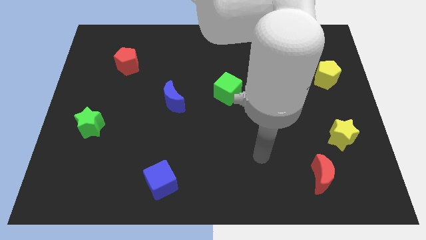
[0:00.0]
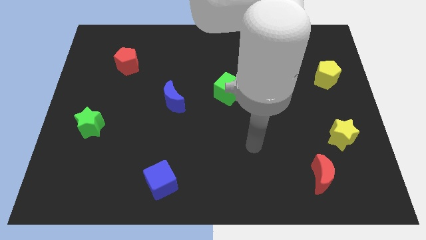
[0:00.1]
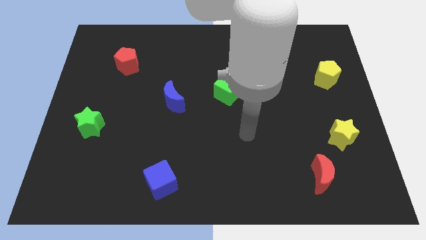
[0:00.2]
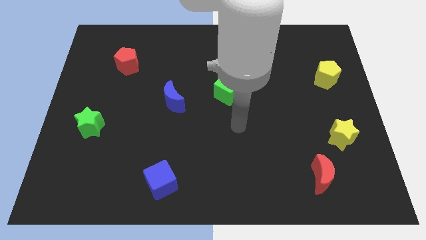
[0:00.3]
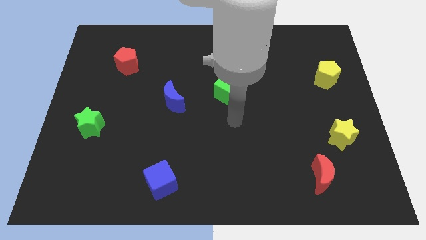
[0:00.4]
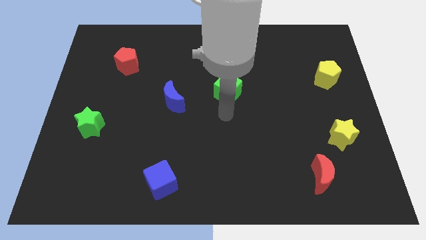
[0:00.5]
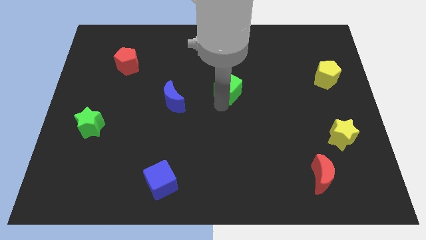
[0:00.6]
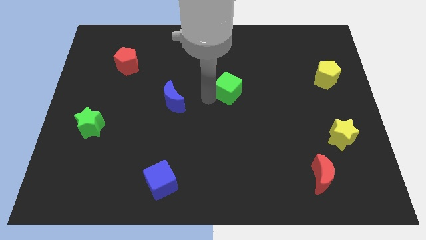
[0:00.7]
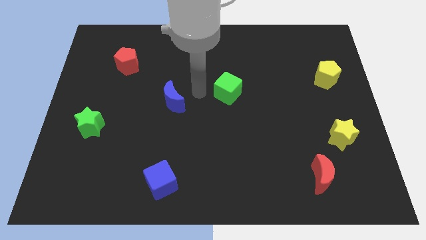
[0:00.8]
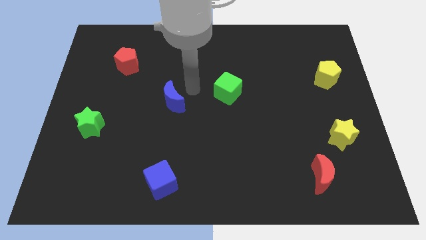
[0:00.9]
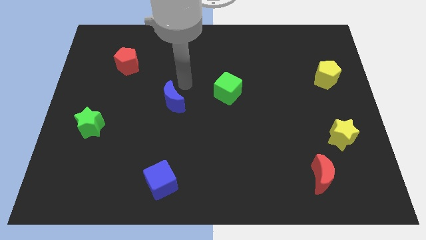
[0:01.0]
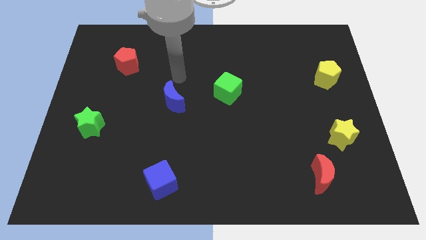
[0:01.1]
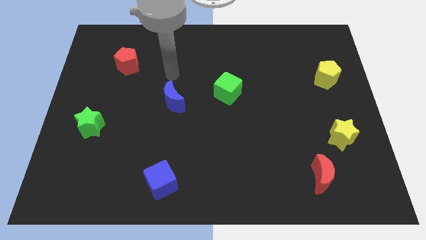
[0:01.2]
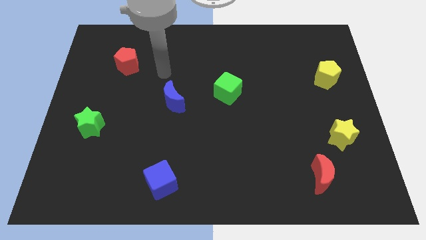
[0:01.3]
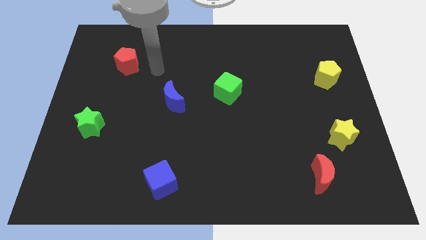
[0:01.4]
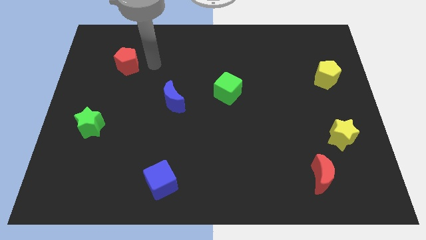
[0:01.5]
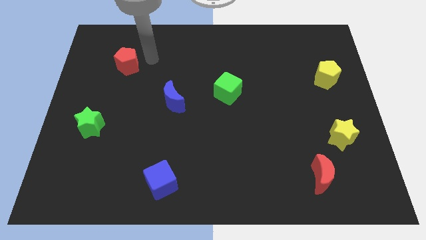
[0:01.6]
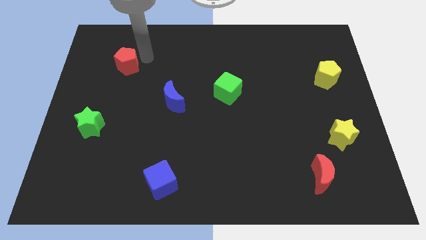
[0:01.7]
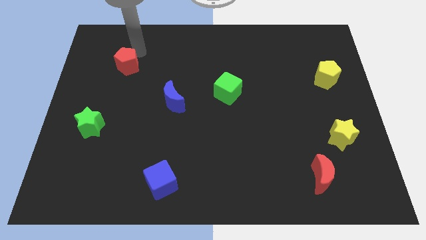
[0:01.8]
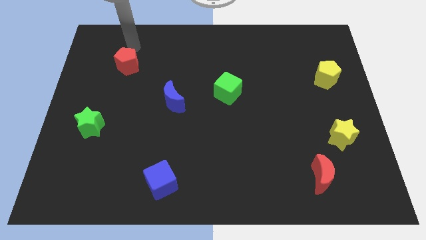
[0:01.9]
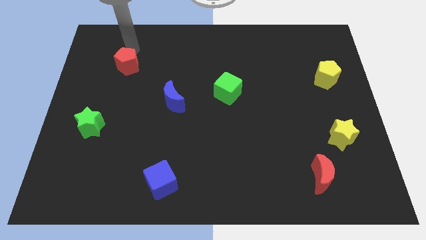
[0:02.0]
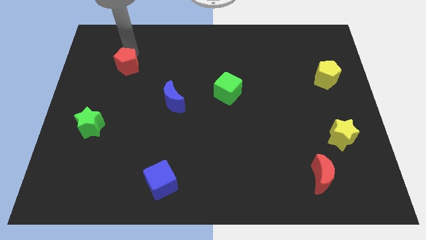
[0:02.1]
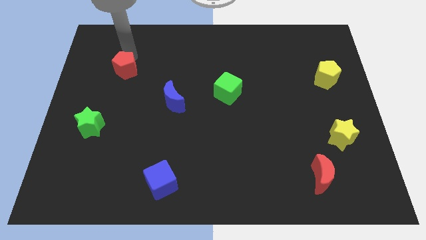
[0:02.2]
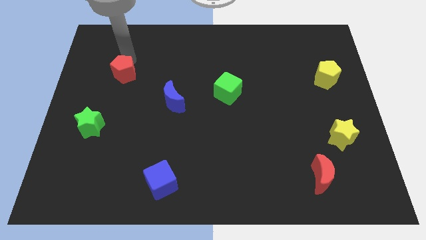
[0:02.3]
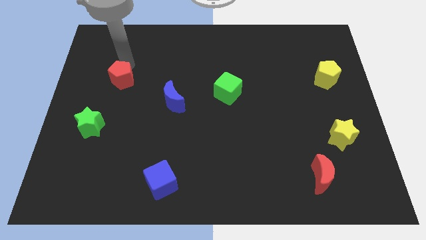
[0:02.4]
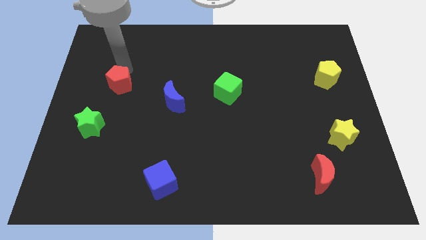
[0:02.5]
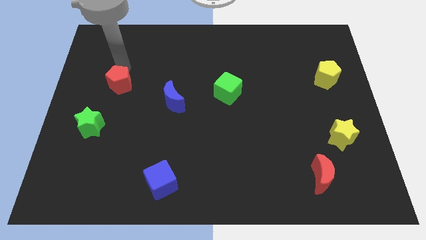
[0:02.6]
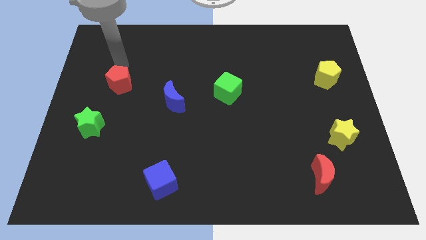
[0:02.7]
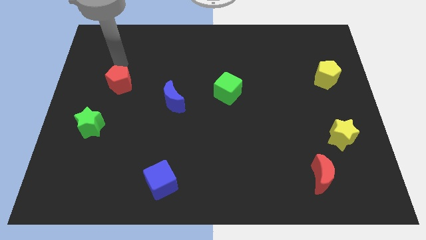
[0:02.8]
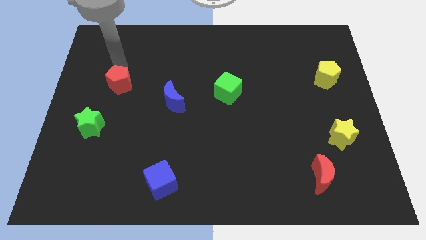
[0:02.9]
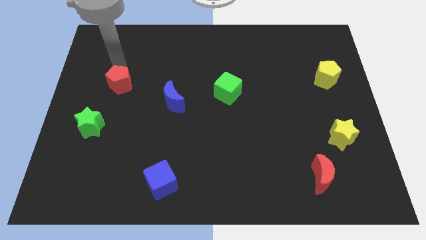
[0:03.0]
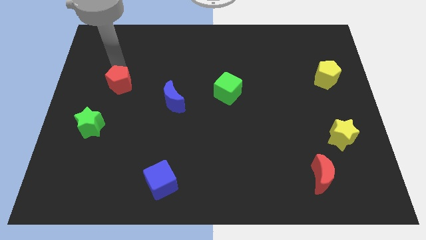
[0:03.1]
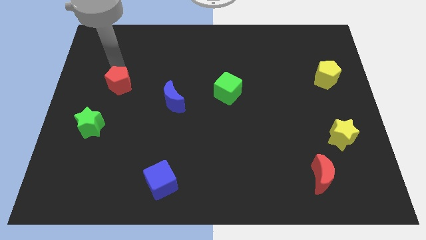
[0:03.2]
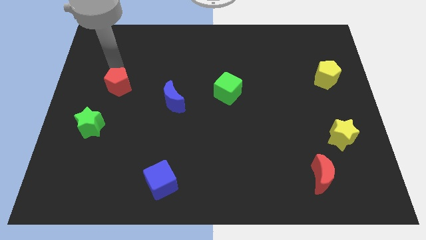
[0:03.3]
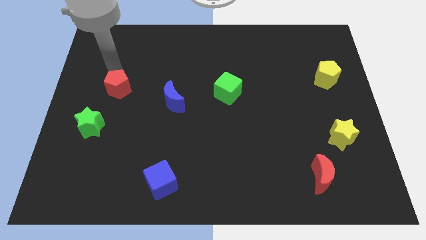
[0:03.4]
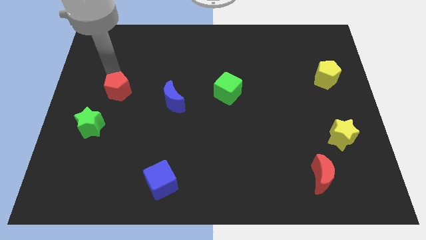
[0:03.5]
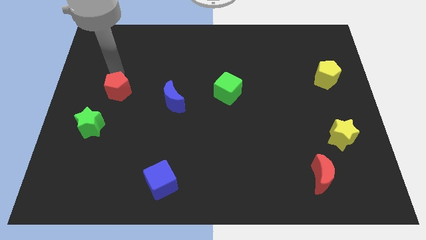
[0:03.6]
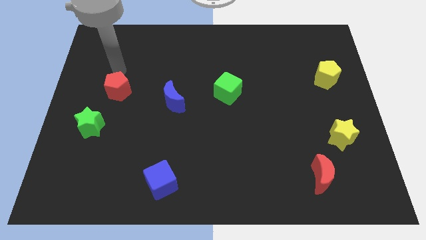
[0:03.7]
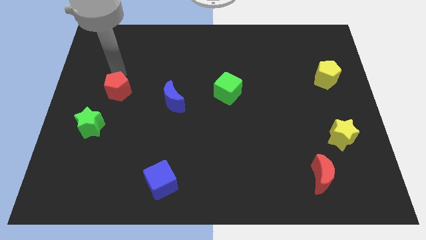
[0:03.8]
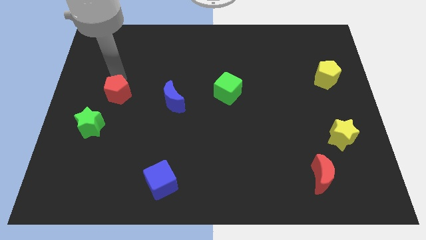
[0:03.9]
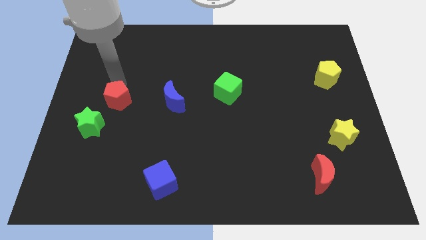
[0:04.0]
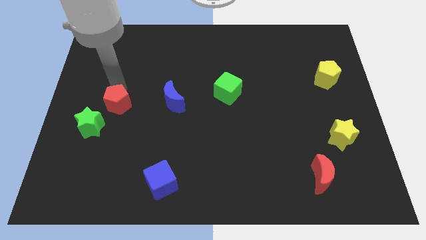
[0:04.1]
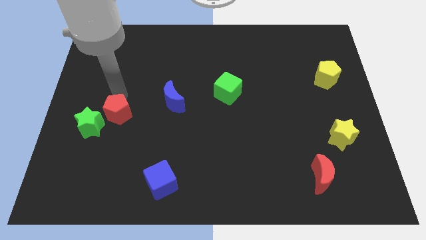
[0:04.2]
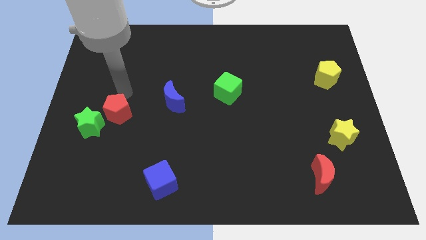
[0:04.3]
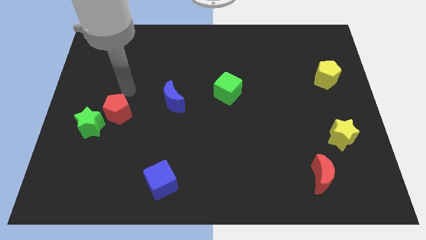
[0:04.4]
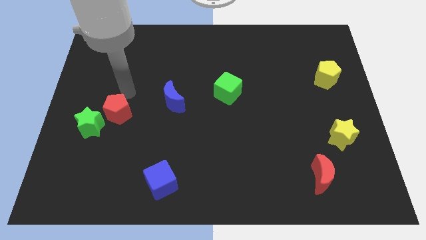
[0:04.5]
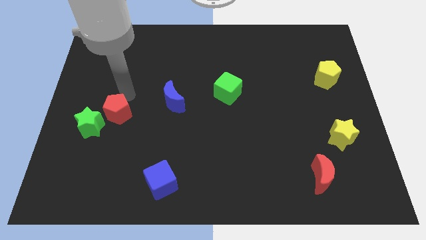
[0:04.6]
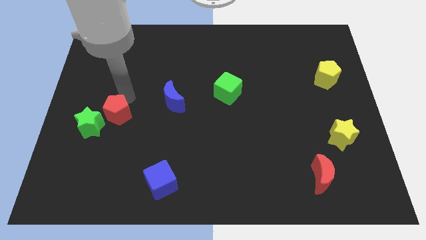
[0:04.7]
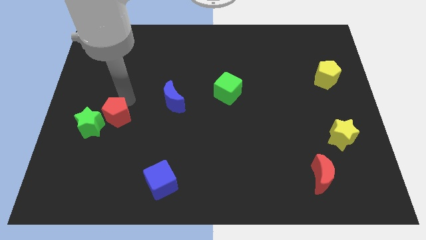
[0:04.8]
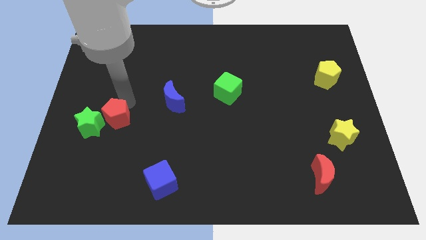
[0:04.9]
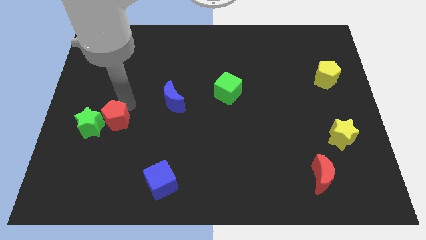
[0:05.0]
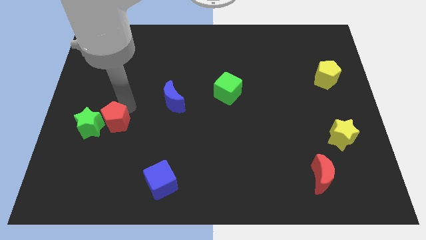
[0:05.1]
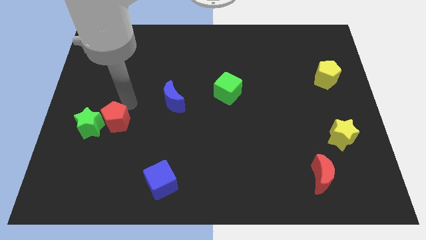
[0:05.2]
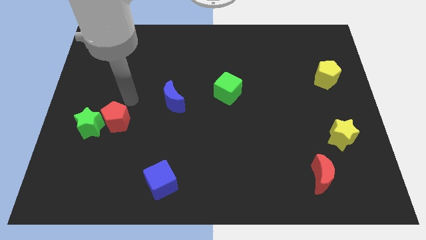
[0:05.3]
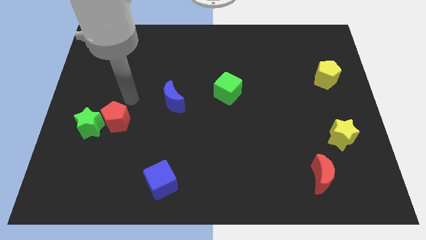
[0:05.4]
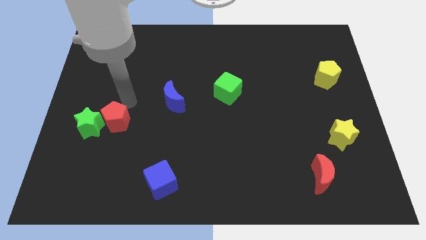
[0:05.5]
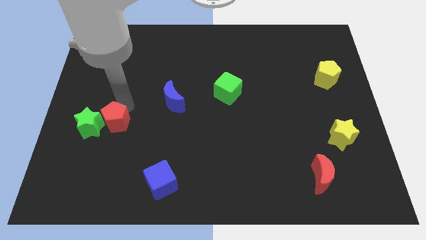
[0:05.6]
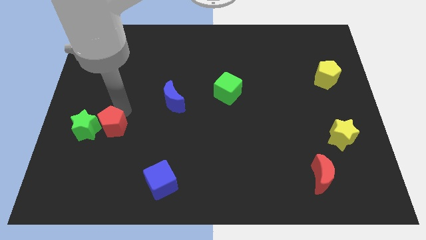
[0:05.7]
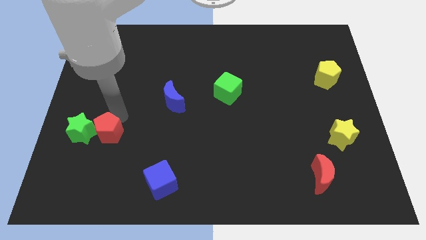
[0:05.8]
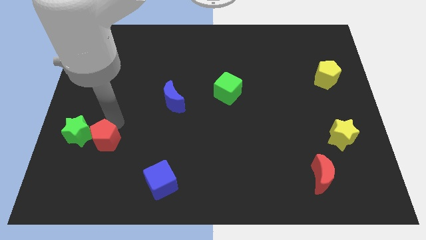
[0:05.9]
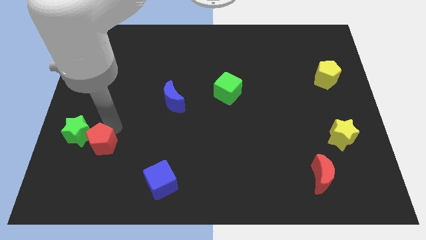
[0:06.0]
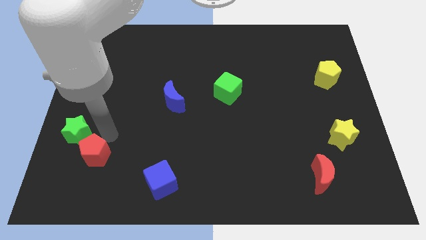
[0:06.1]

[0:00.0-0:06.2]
slide the red pentagon below the green star

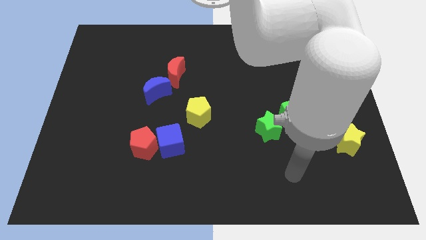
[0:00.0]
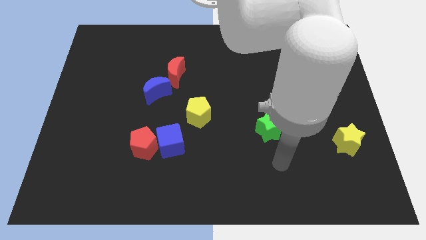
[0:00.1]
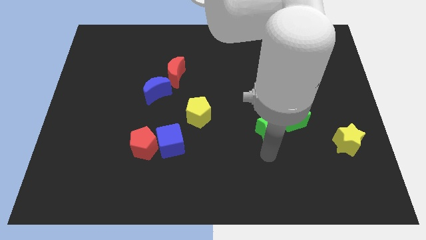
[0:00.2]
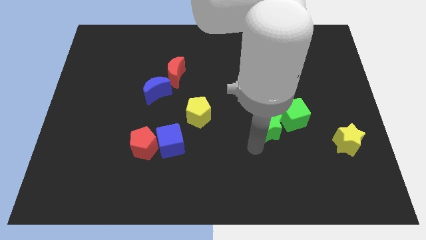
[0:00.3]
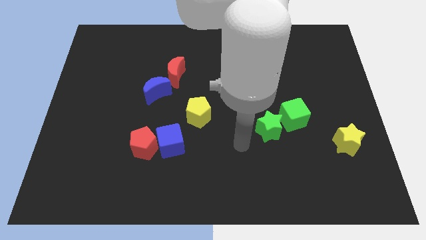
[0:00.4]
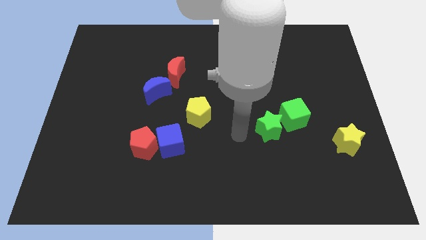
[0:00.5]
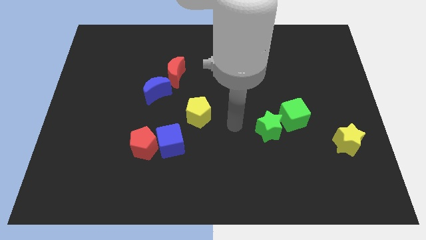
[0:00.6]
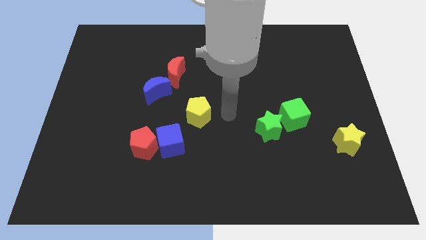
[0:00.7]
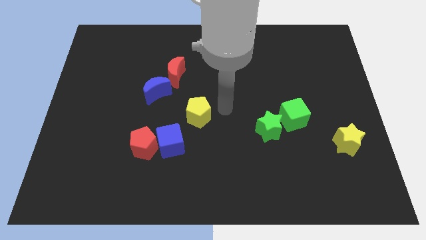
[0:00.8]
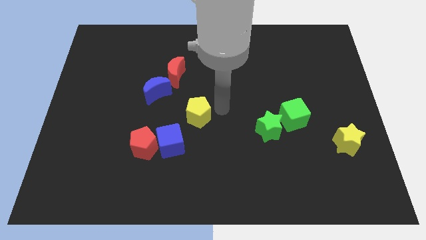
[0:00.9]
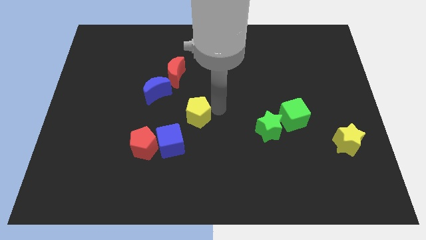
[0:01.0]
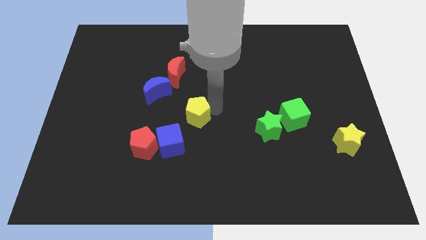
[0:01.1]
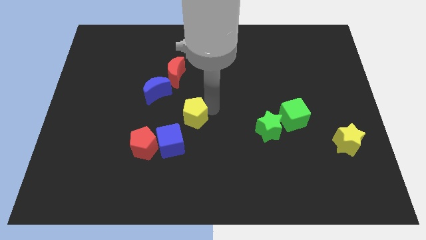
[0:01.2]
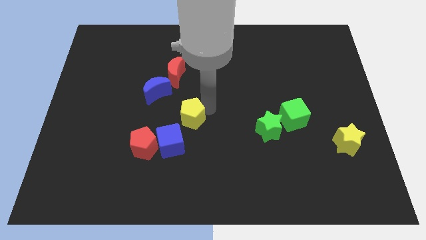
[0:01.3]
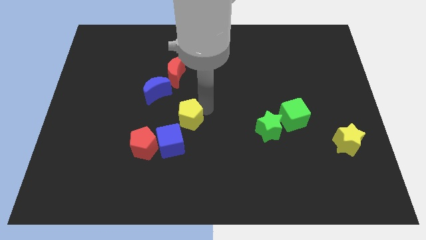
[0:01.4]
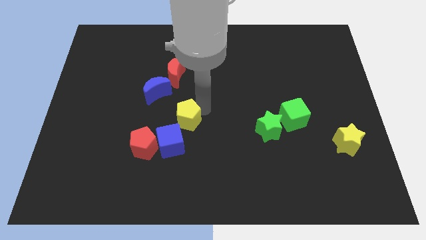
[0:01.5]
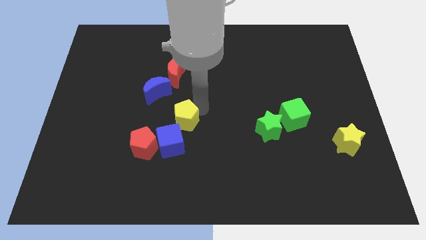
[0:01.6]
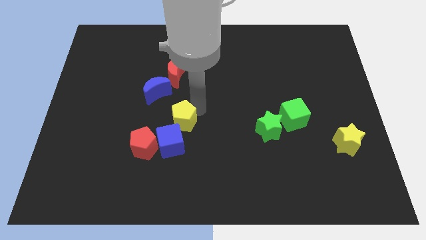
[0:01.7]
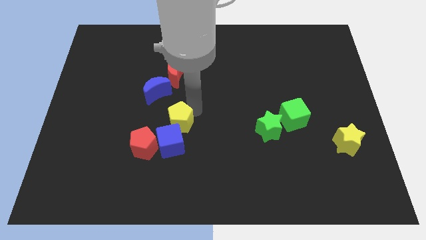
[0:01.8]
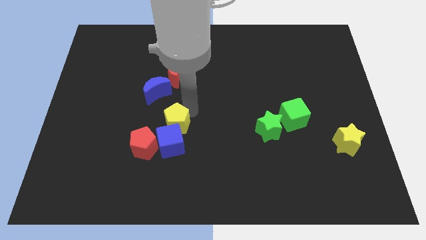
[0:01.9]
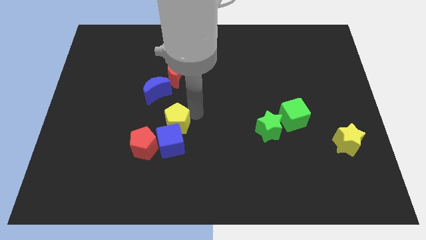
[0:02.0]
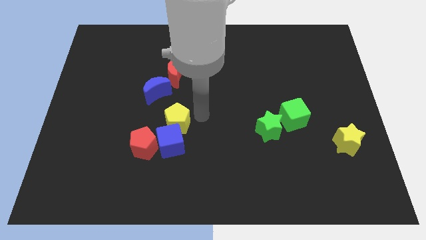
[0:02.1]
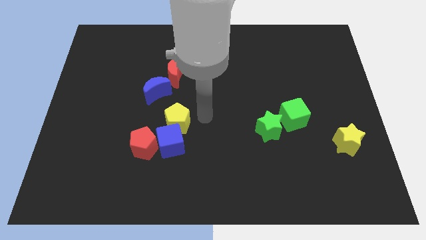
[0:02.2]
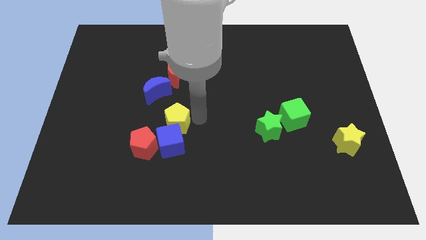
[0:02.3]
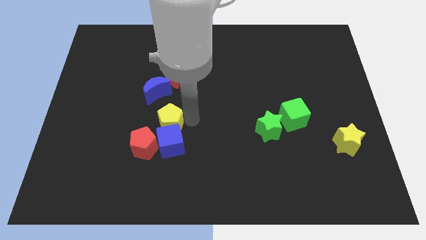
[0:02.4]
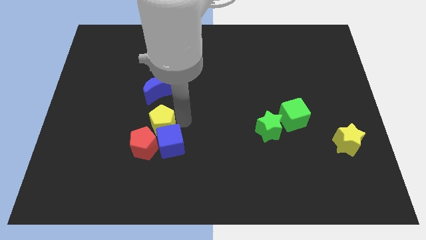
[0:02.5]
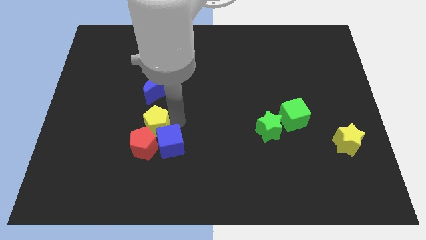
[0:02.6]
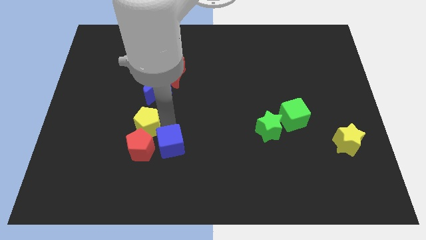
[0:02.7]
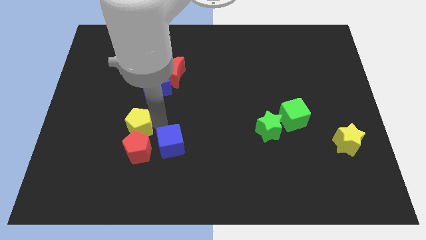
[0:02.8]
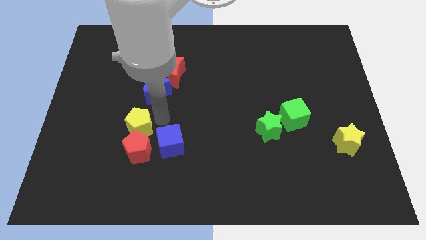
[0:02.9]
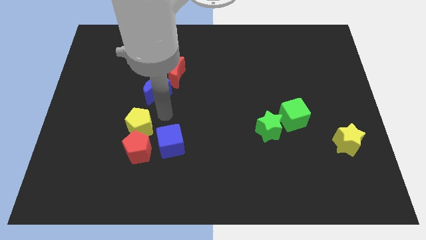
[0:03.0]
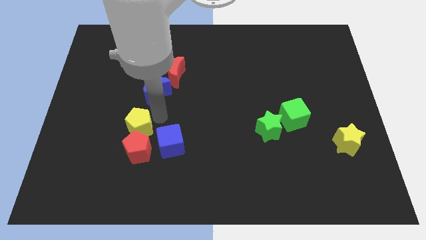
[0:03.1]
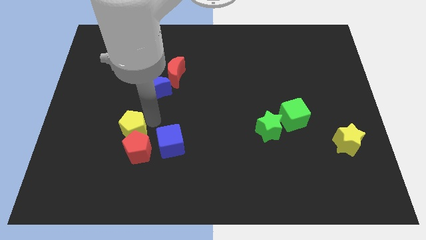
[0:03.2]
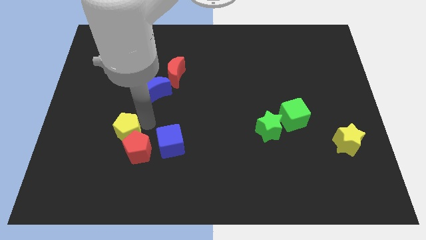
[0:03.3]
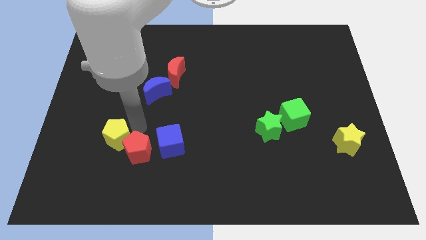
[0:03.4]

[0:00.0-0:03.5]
put the yellow pentagon left of the red pentagon
